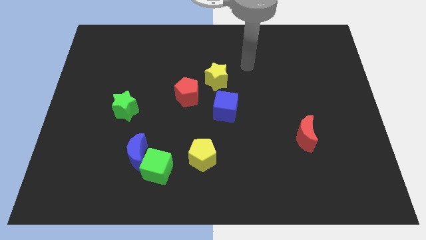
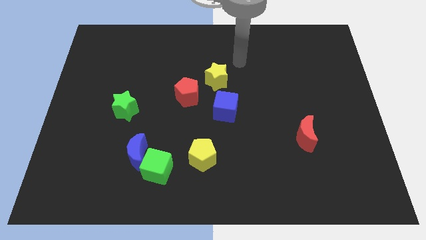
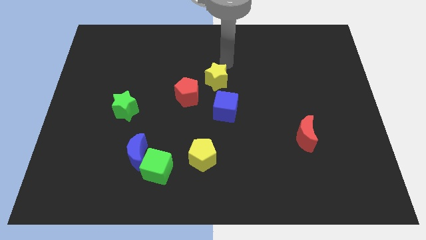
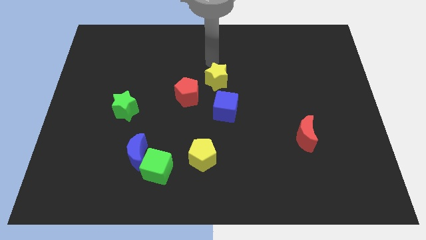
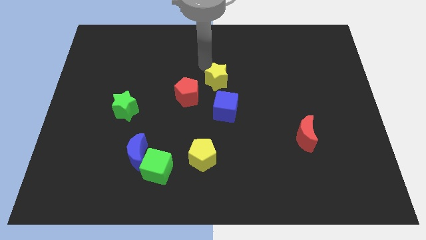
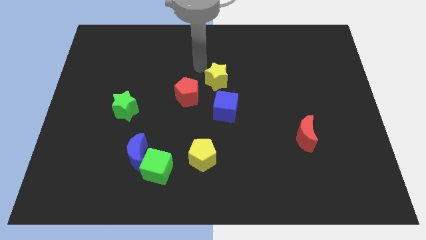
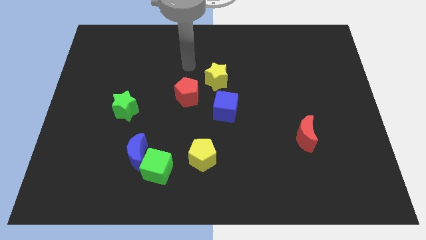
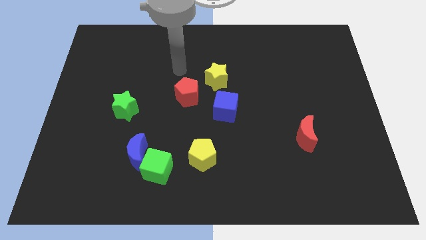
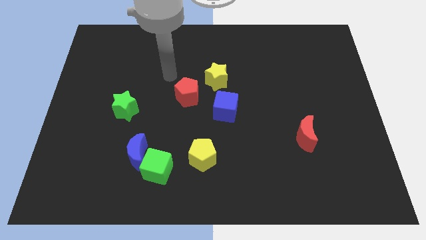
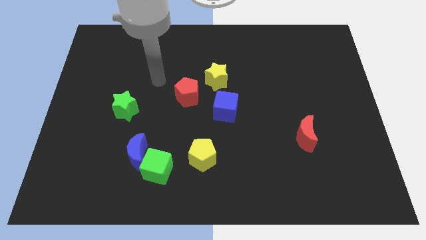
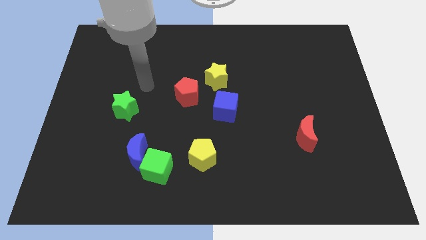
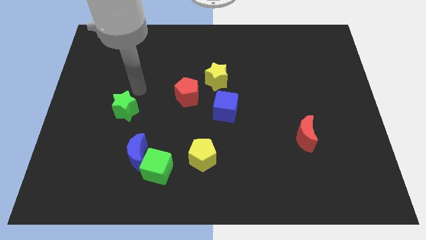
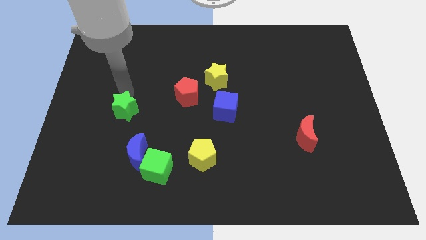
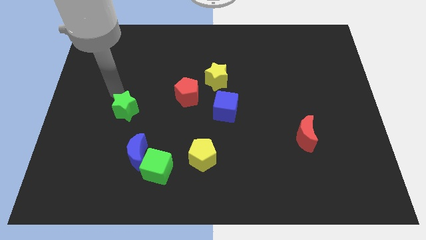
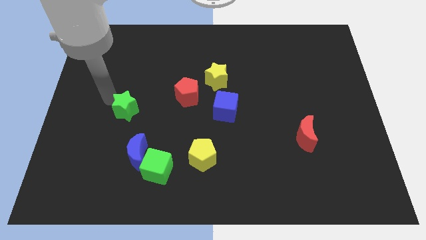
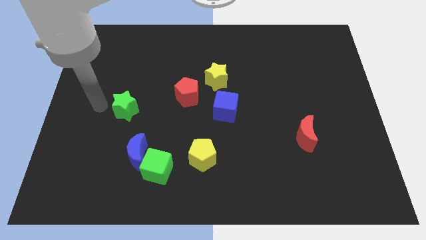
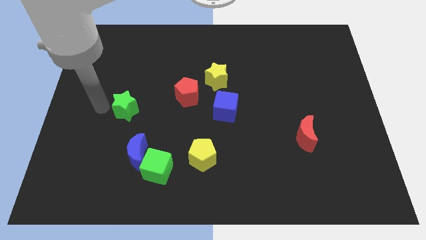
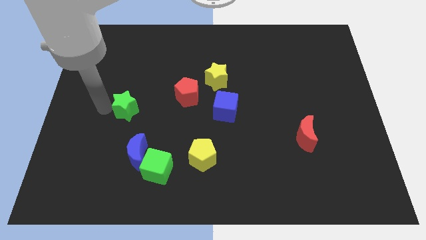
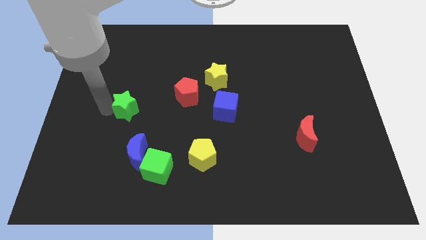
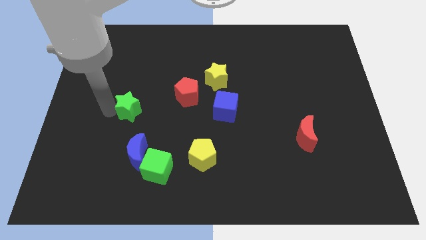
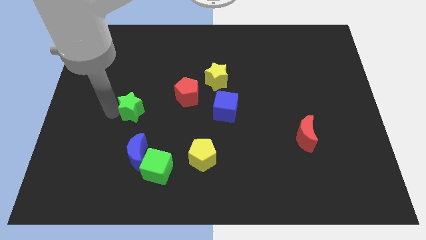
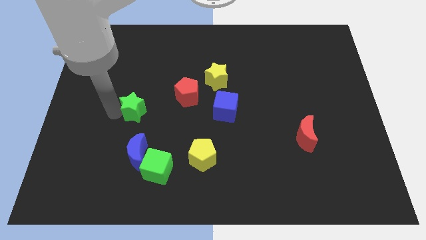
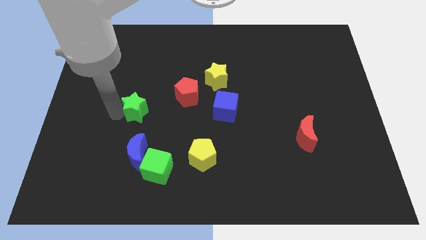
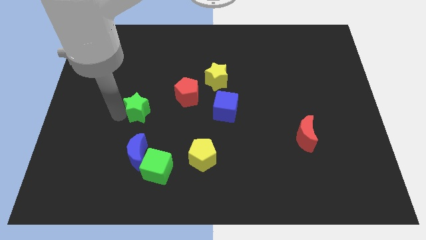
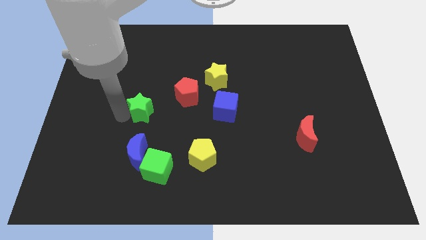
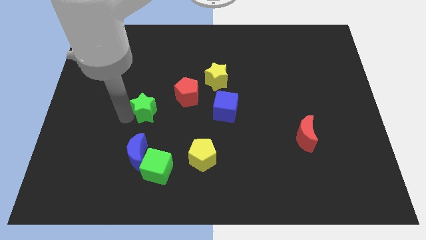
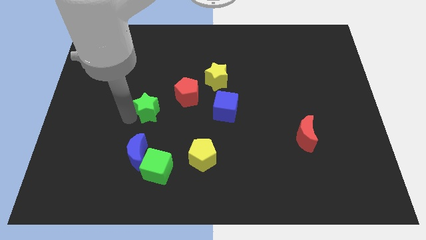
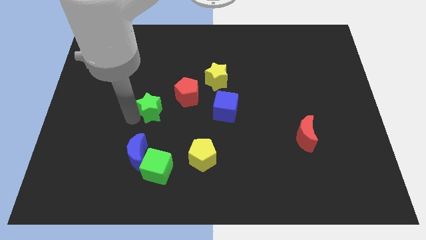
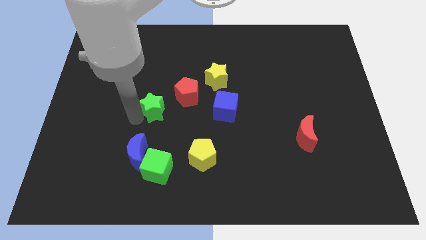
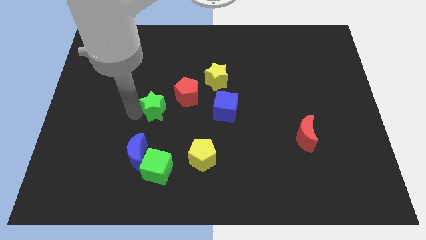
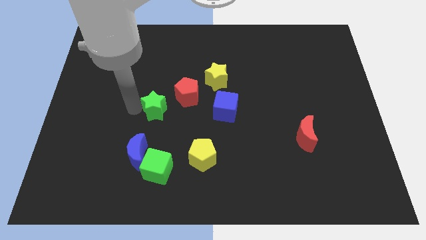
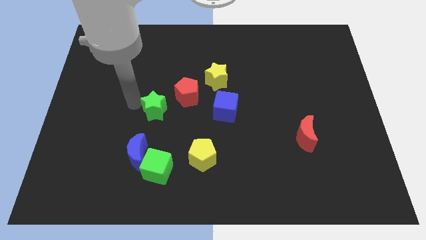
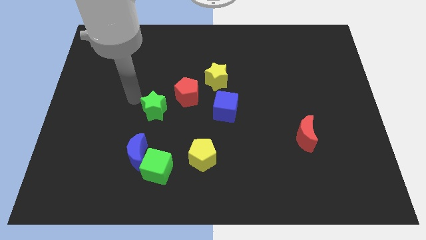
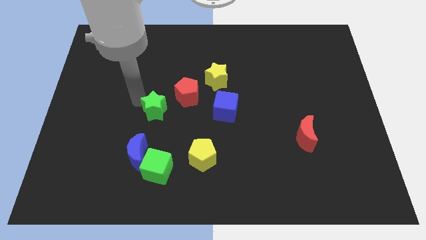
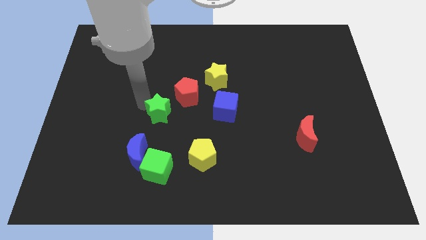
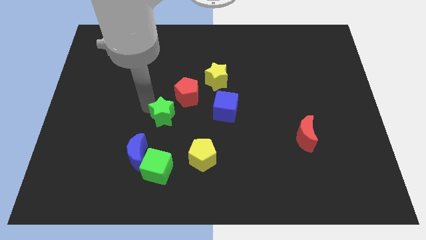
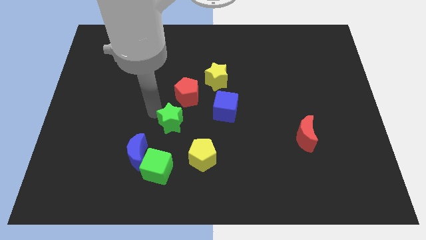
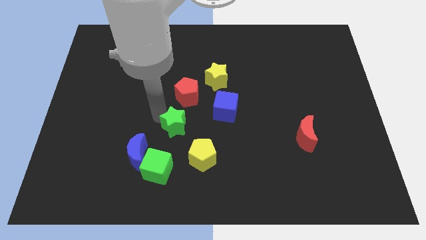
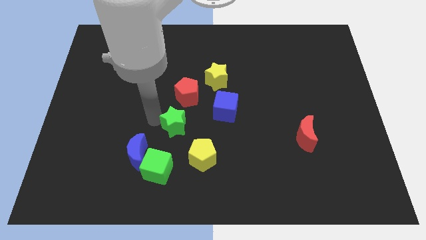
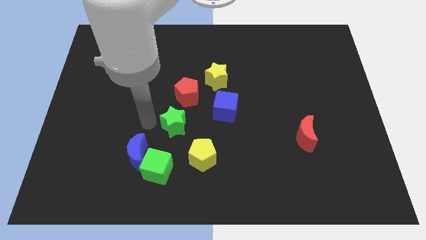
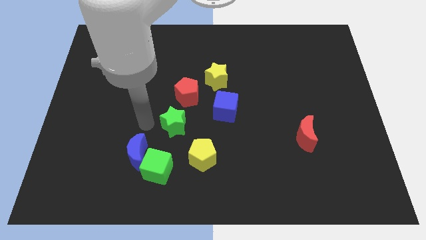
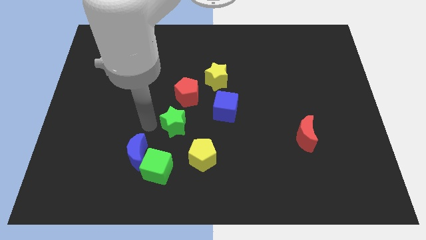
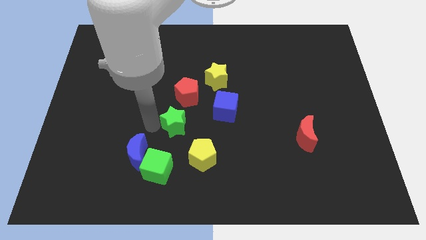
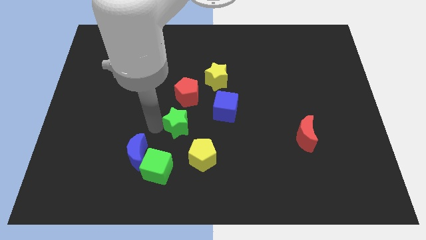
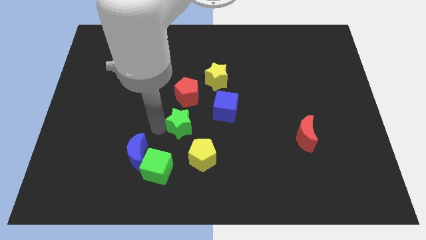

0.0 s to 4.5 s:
put the green star to the bottom left side of the blue cube

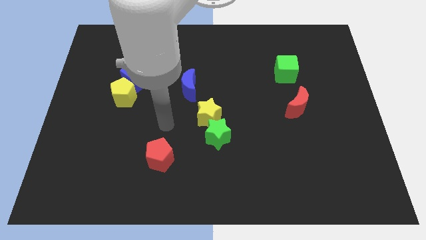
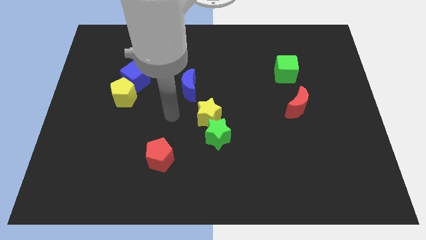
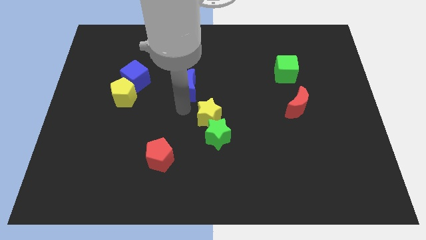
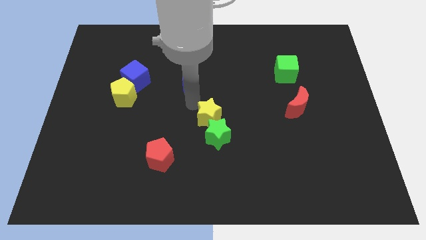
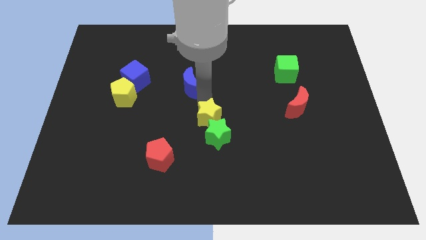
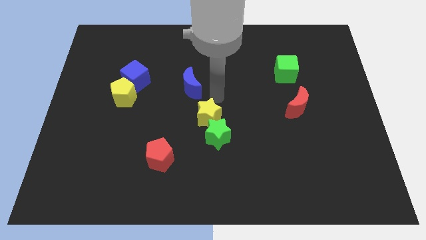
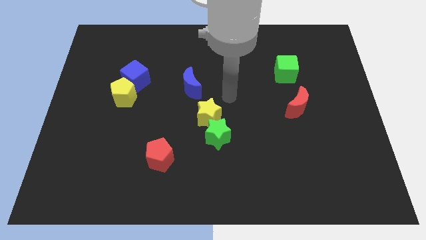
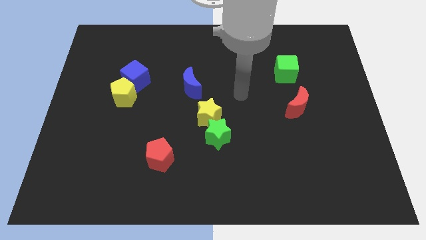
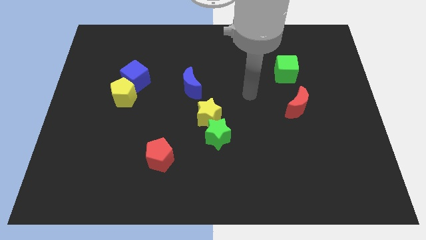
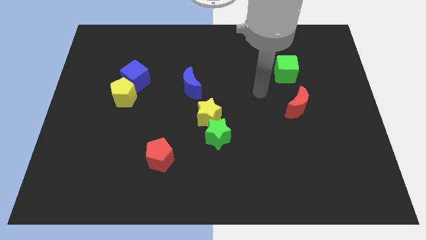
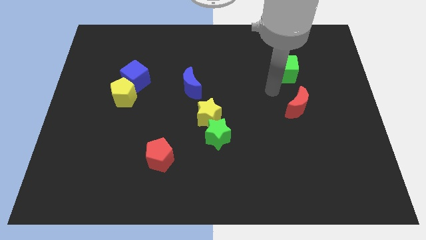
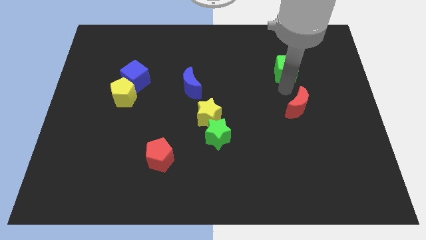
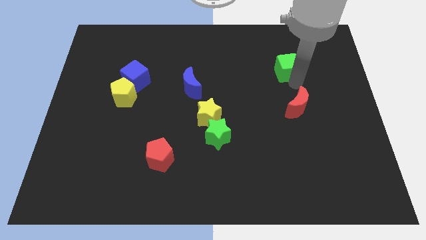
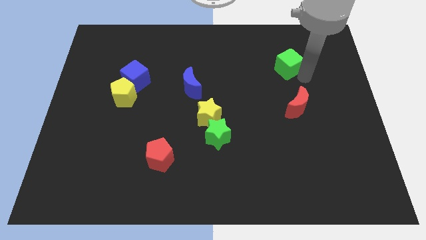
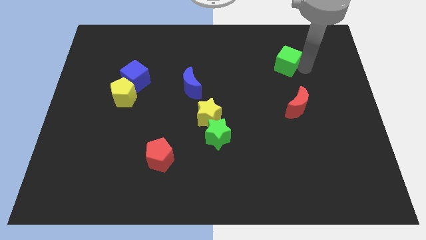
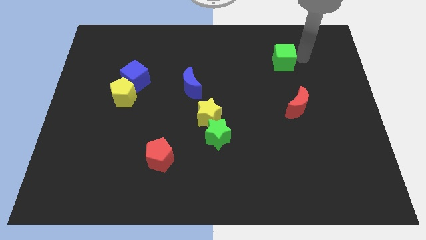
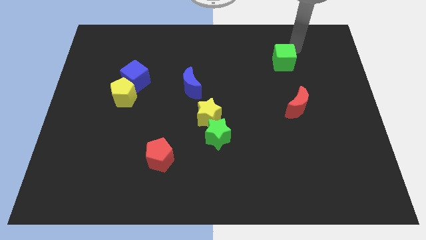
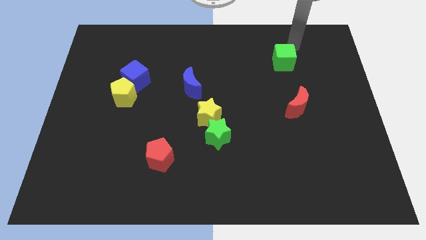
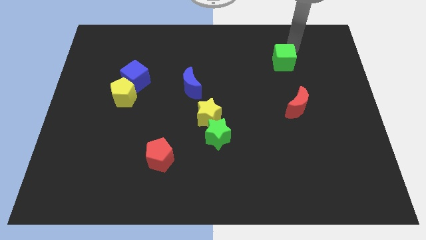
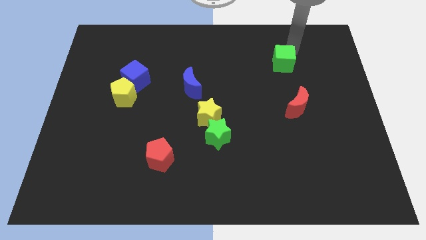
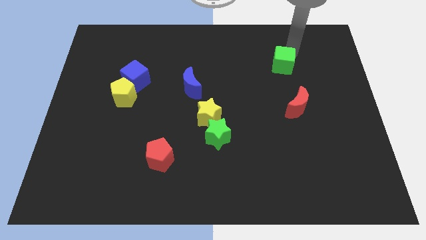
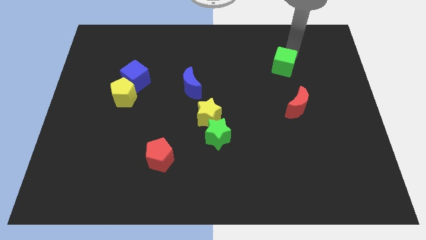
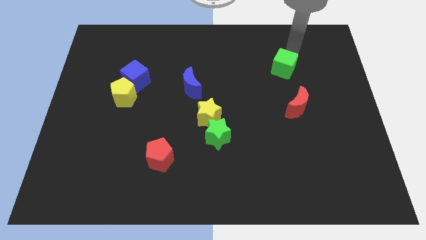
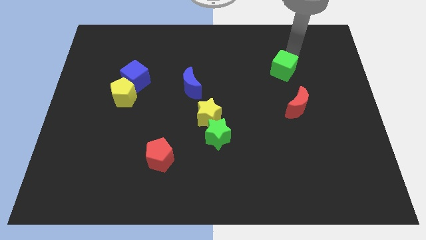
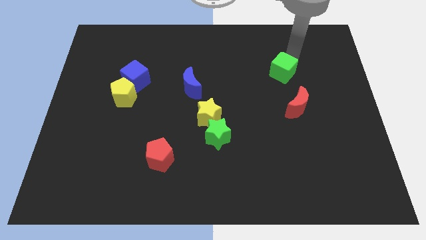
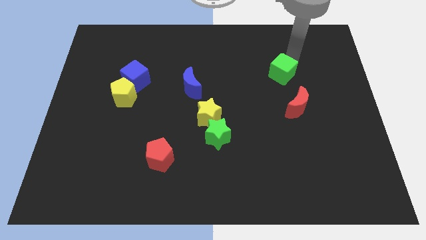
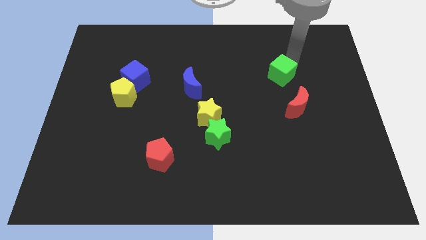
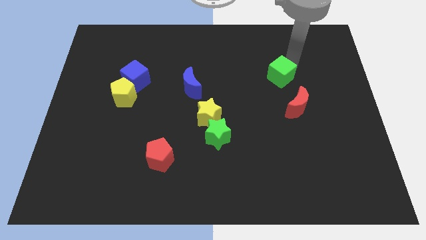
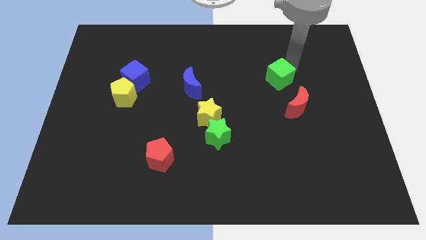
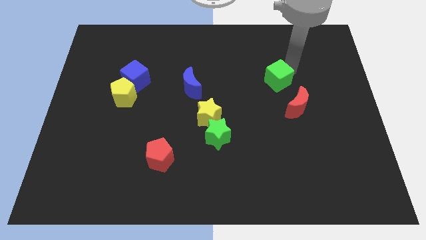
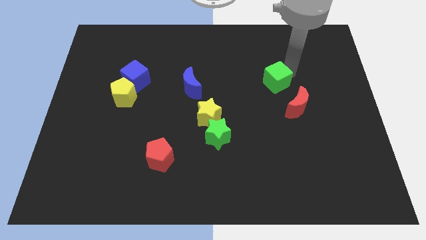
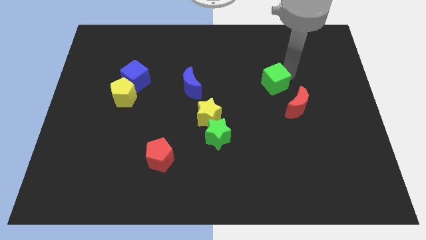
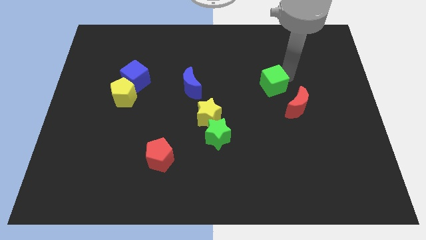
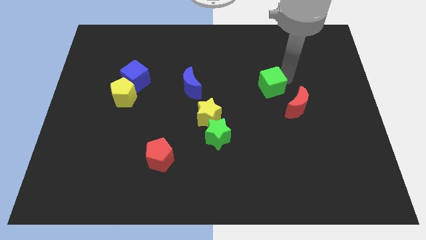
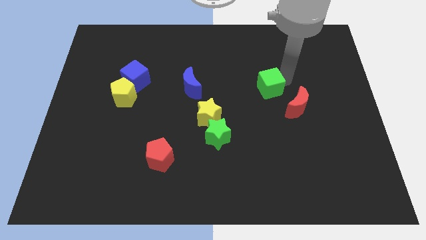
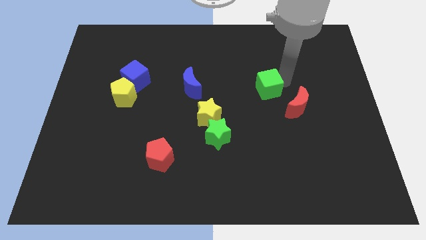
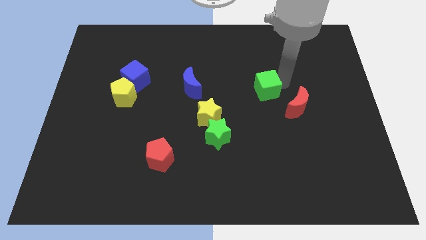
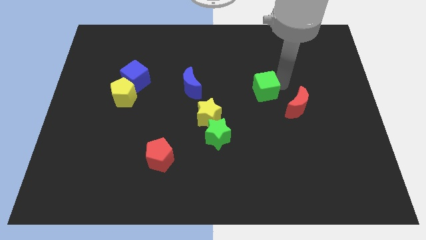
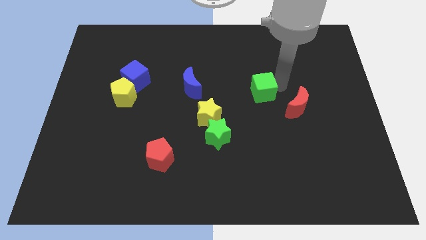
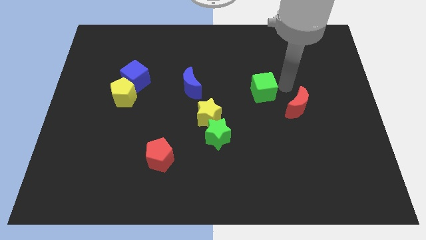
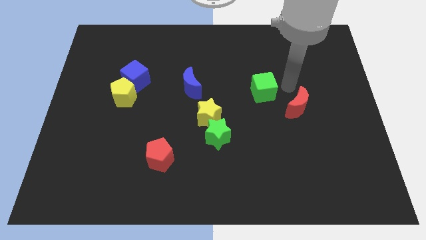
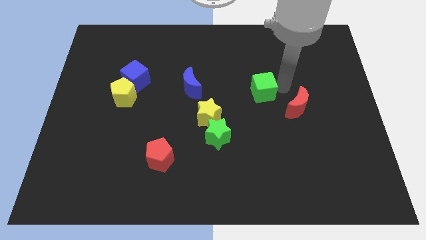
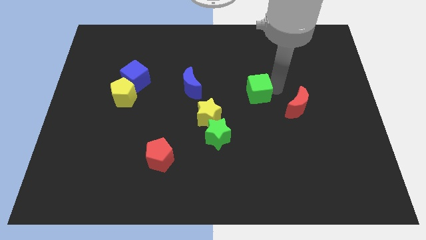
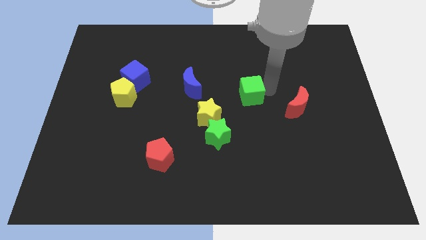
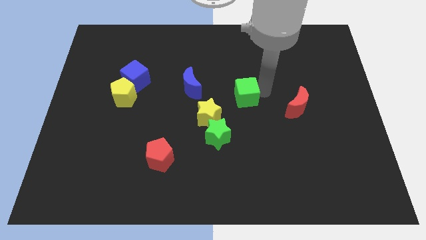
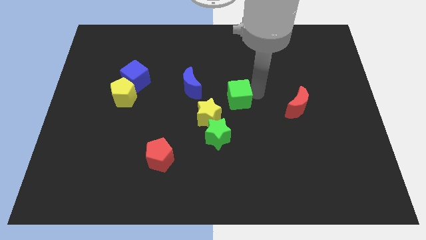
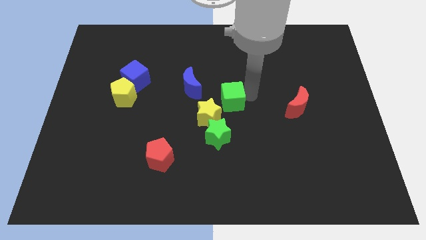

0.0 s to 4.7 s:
slide the green cube above the green star
